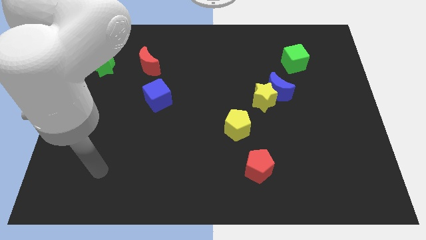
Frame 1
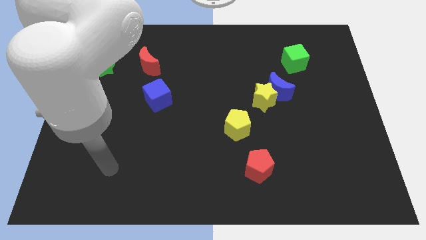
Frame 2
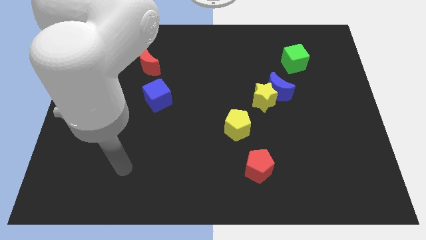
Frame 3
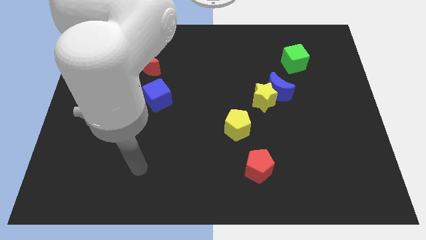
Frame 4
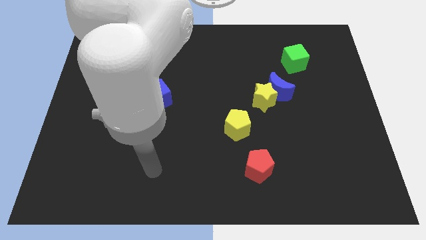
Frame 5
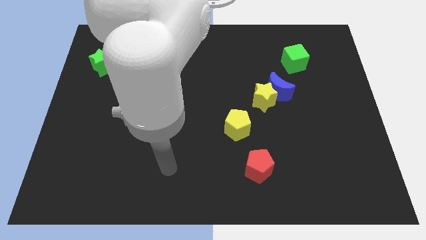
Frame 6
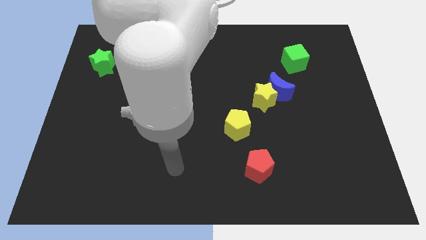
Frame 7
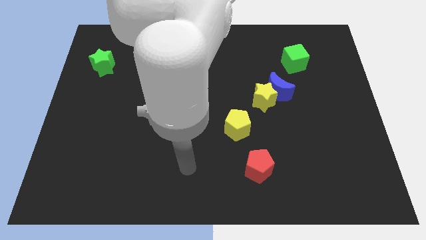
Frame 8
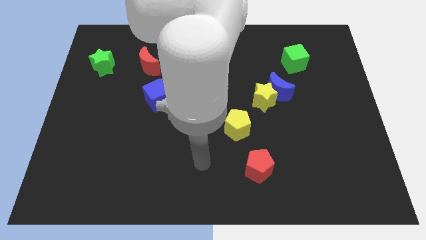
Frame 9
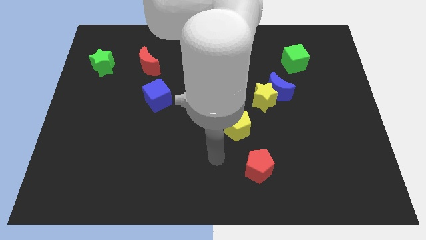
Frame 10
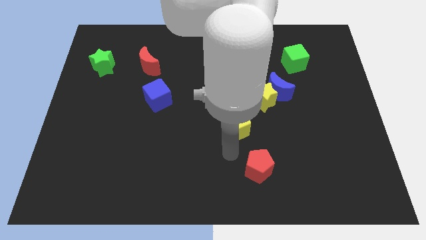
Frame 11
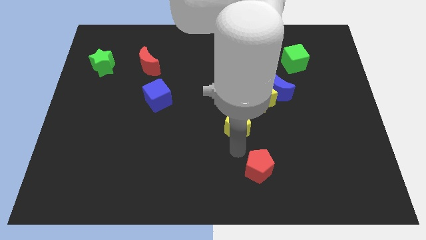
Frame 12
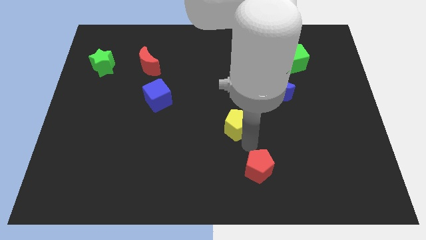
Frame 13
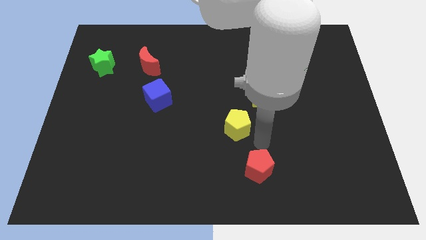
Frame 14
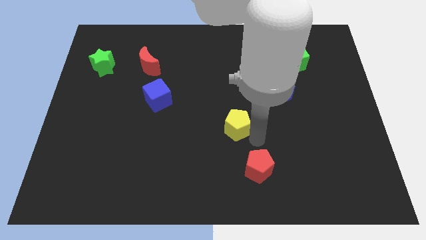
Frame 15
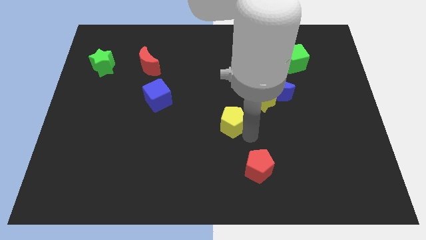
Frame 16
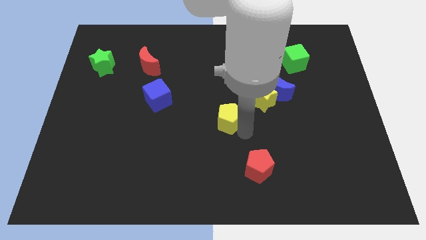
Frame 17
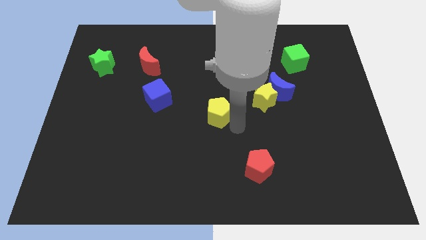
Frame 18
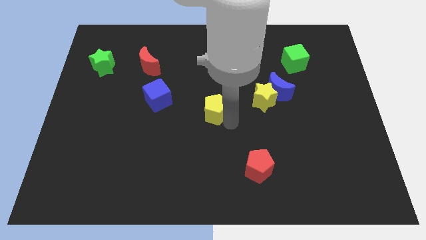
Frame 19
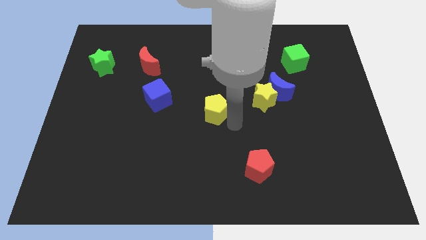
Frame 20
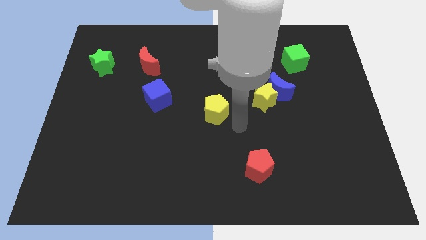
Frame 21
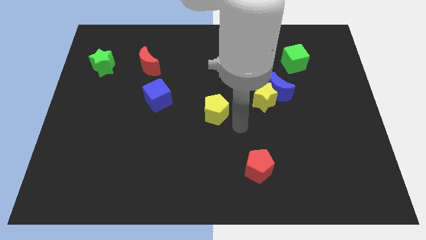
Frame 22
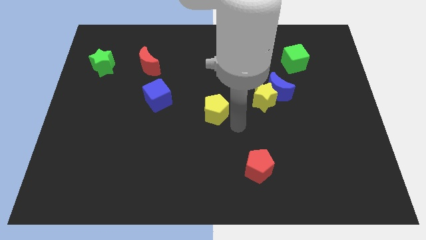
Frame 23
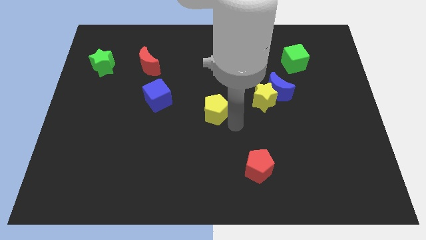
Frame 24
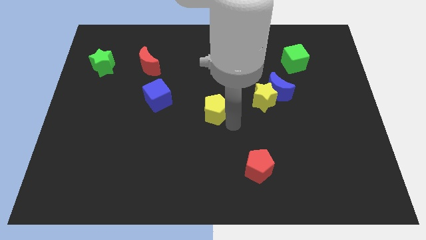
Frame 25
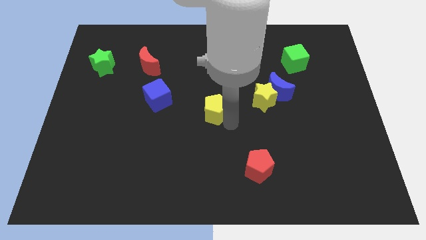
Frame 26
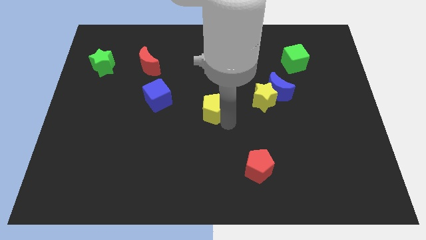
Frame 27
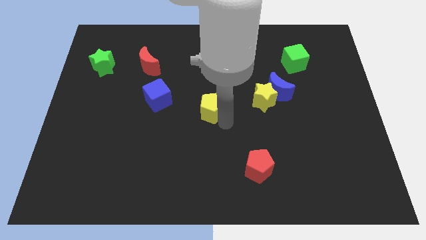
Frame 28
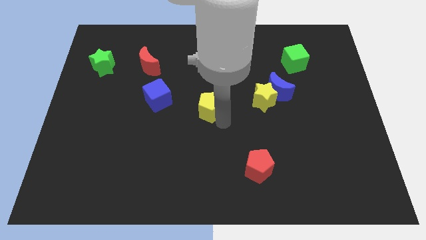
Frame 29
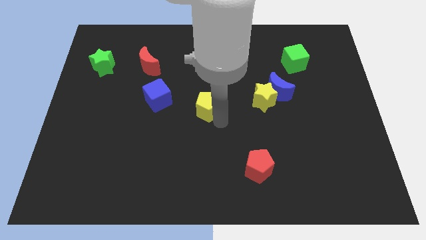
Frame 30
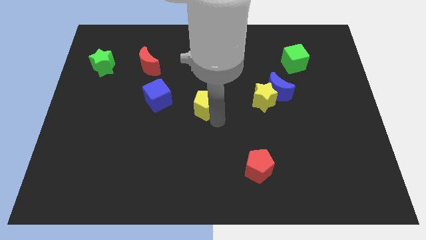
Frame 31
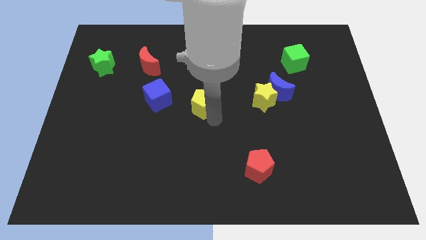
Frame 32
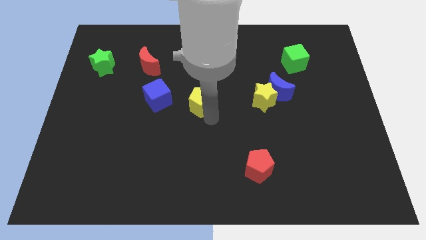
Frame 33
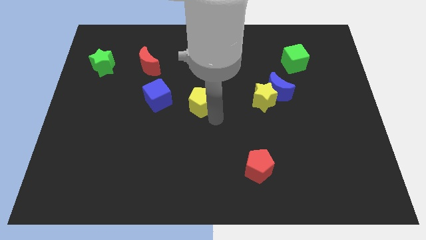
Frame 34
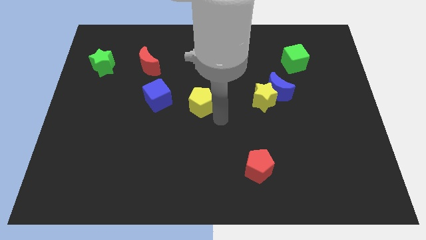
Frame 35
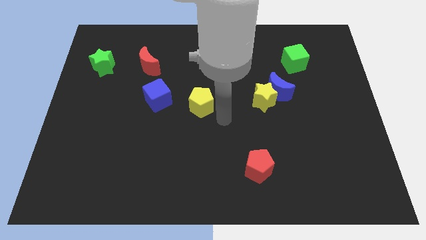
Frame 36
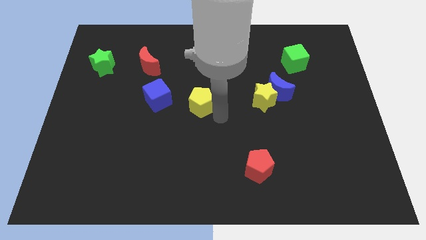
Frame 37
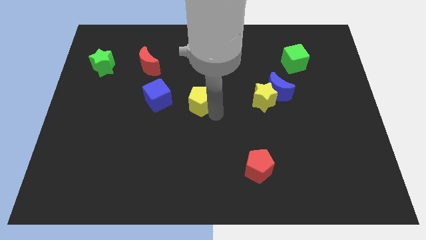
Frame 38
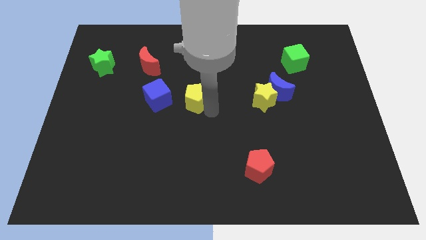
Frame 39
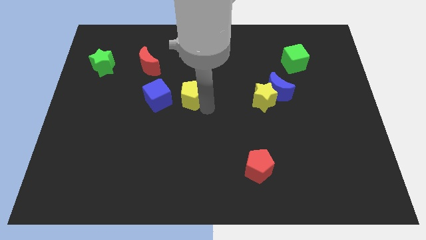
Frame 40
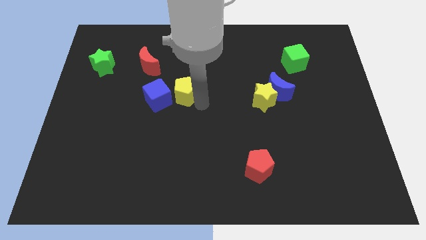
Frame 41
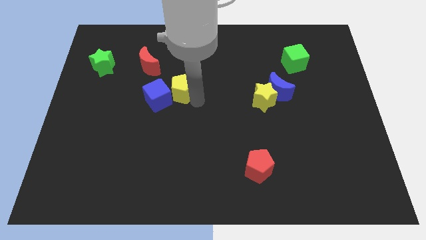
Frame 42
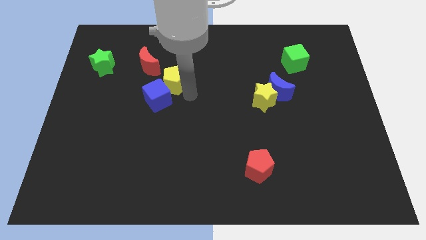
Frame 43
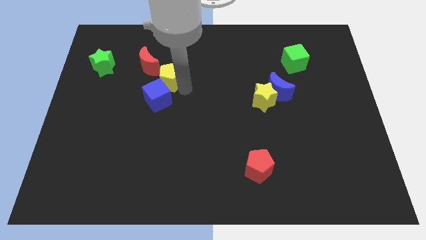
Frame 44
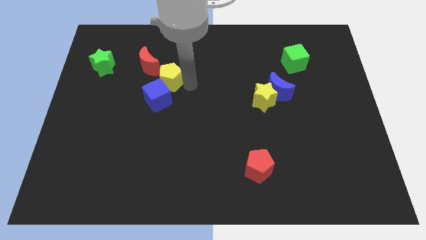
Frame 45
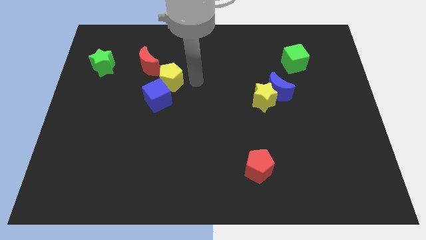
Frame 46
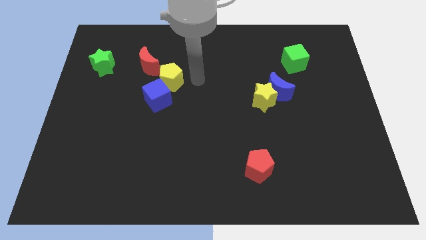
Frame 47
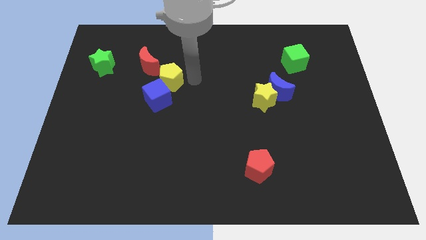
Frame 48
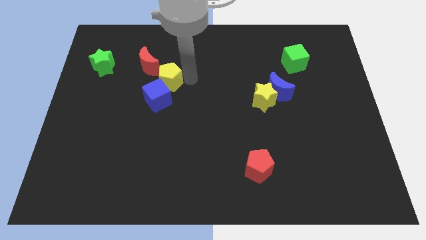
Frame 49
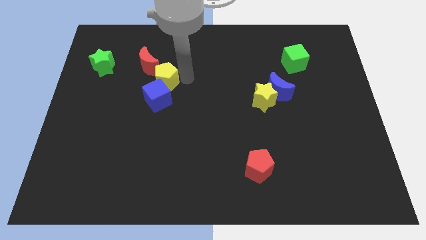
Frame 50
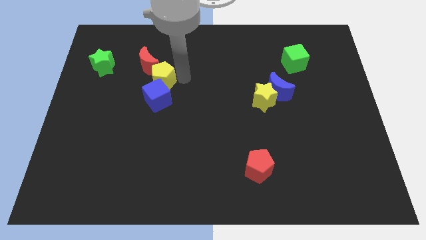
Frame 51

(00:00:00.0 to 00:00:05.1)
push the yellow pentagon diagonally up and to the left of the blue cube

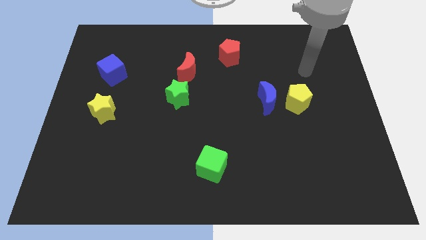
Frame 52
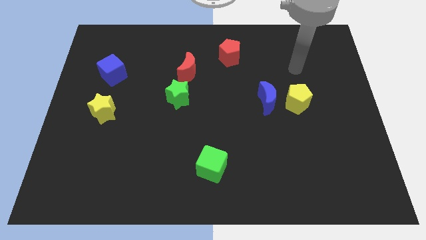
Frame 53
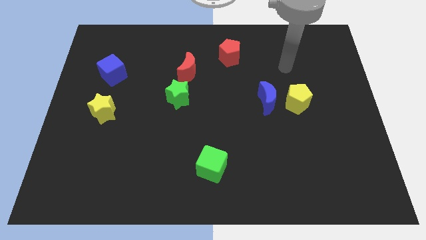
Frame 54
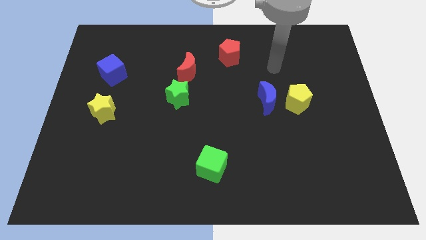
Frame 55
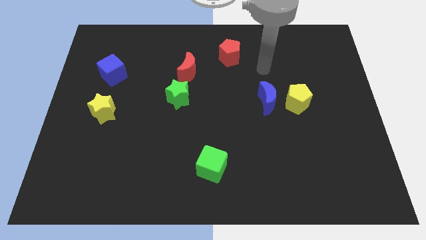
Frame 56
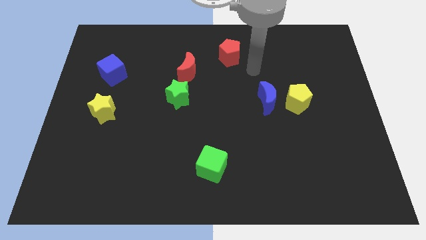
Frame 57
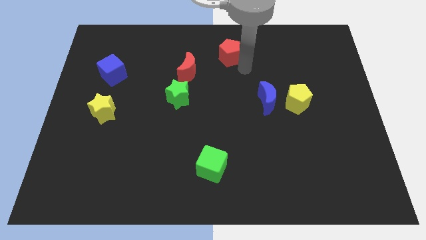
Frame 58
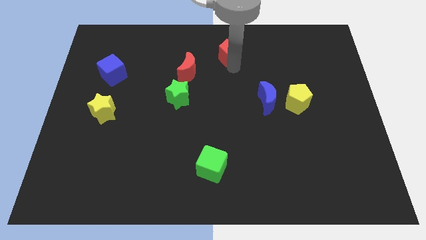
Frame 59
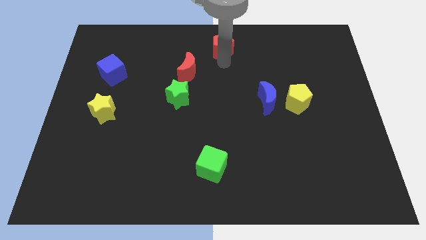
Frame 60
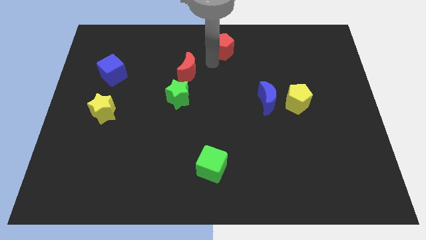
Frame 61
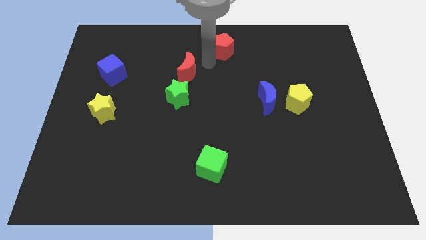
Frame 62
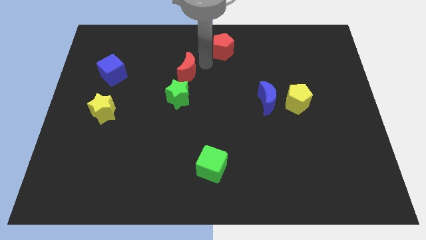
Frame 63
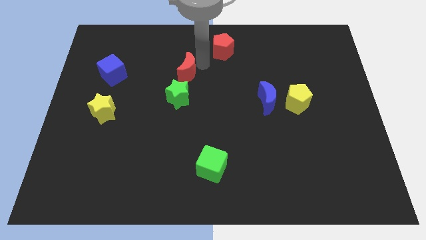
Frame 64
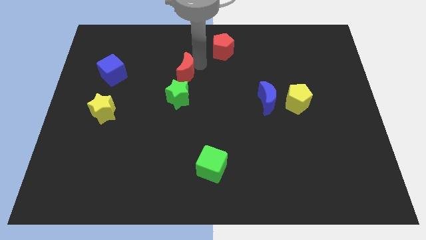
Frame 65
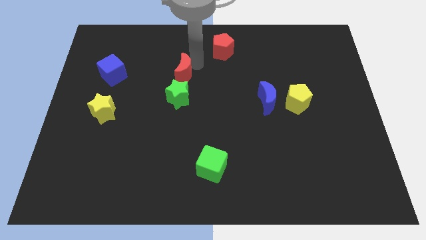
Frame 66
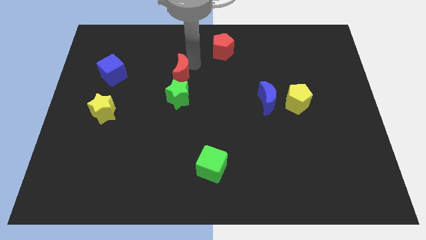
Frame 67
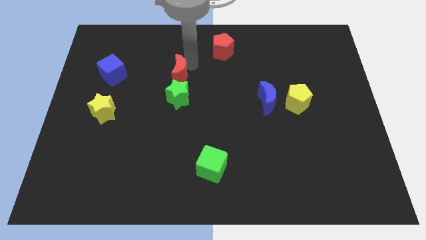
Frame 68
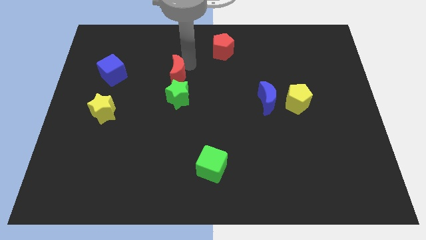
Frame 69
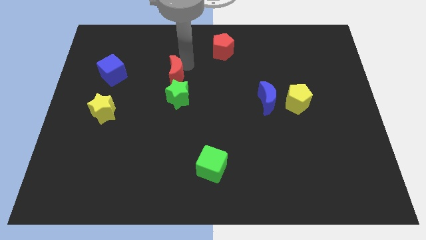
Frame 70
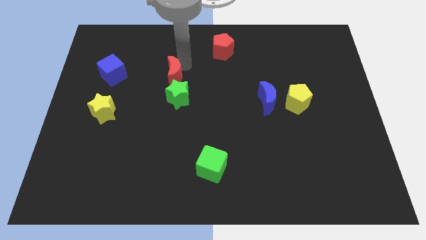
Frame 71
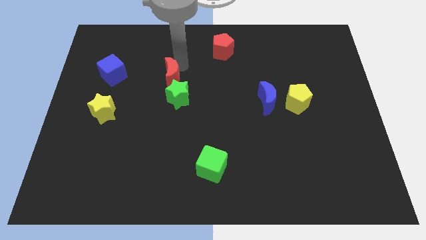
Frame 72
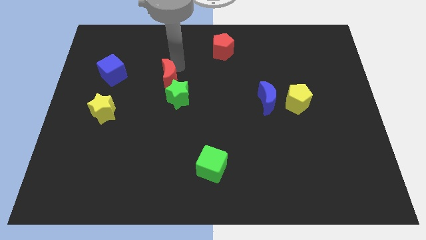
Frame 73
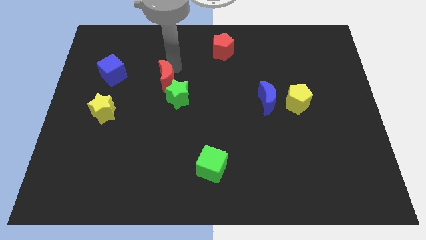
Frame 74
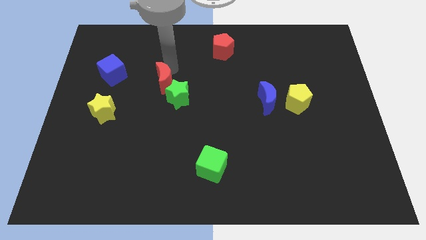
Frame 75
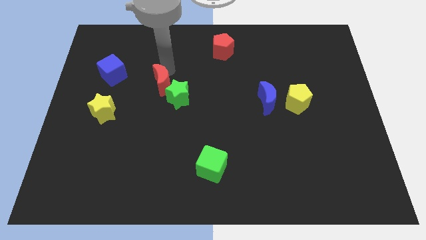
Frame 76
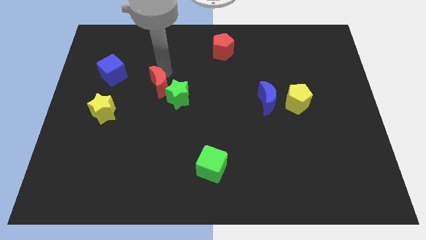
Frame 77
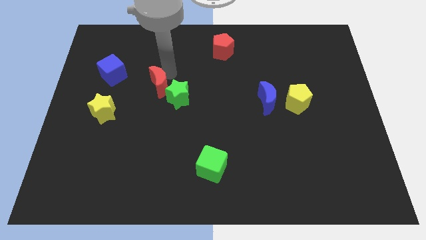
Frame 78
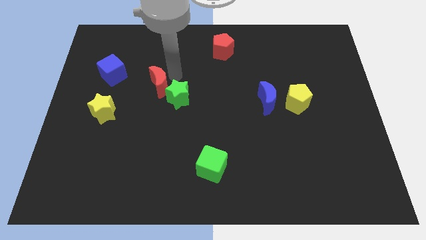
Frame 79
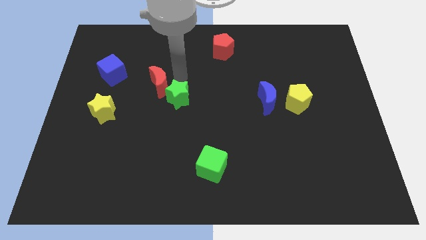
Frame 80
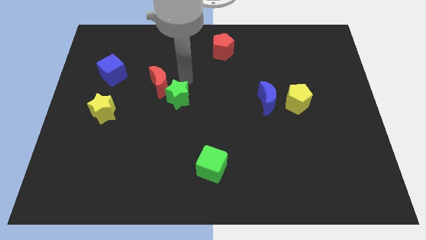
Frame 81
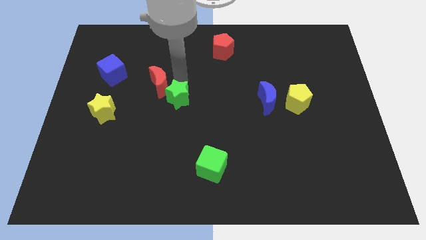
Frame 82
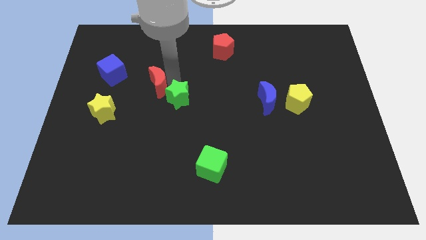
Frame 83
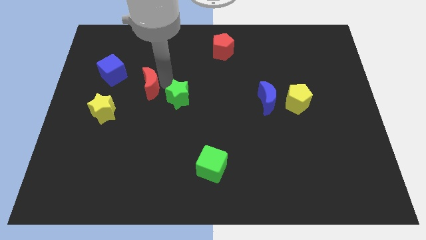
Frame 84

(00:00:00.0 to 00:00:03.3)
move the red moon to the bottom right side of the blue cube
